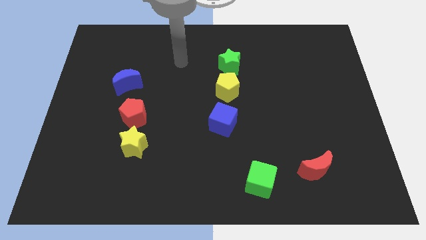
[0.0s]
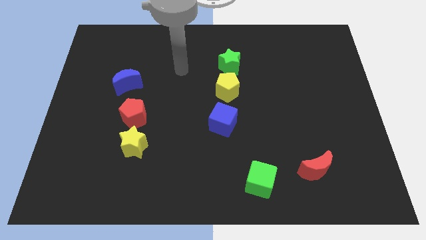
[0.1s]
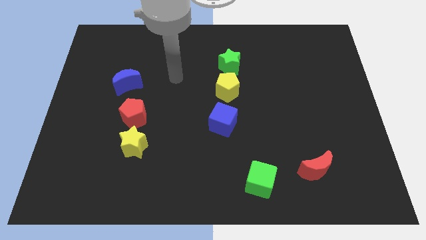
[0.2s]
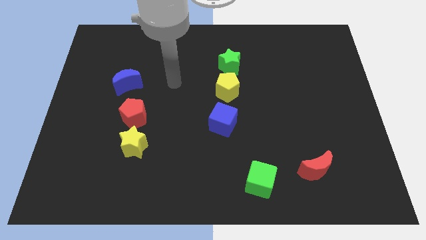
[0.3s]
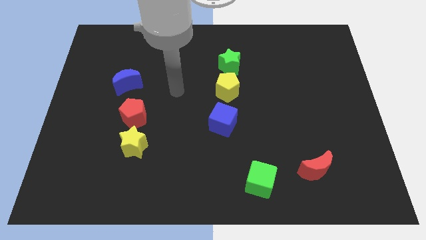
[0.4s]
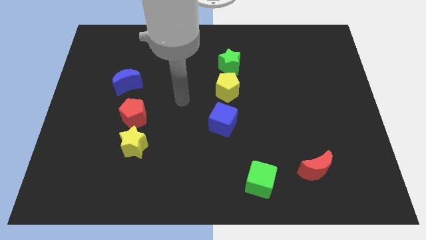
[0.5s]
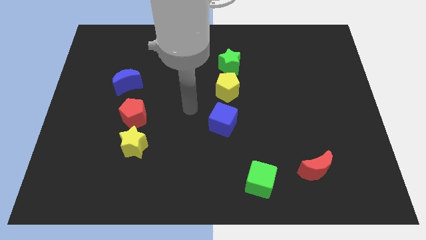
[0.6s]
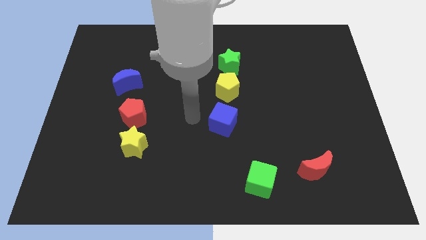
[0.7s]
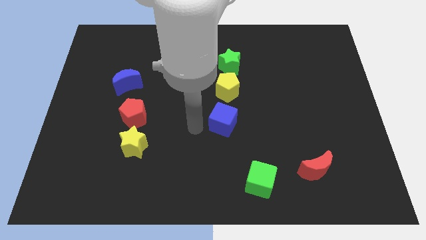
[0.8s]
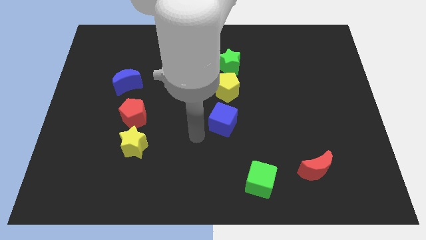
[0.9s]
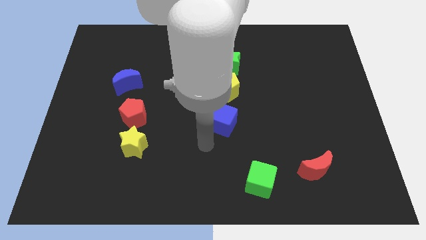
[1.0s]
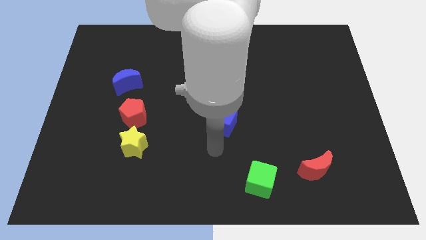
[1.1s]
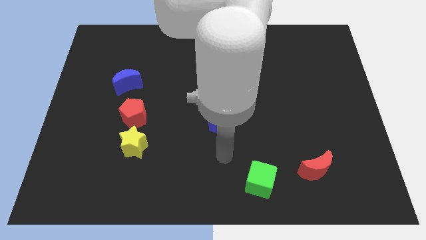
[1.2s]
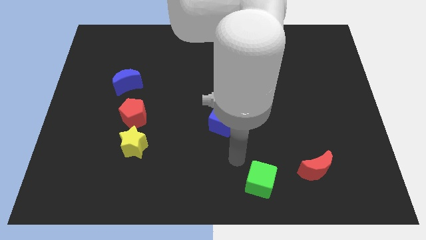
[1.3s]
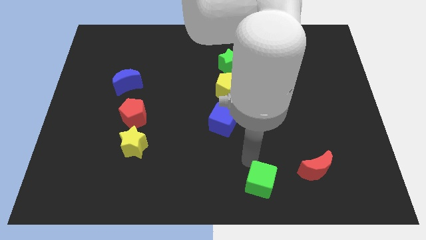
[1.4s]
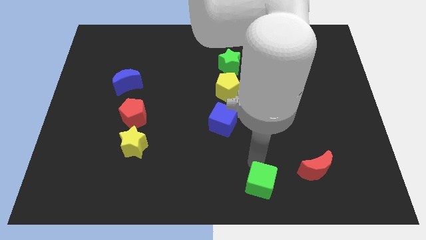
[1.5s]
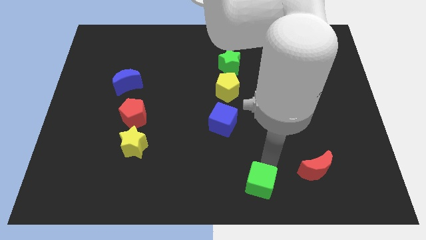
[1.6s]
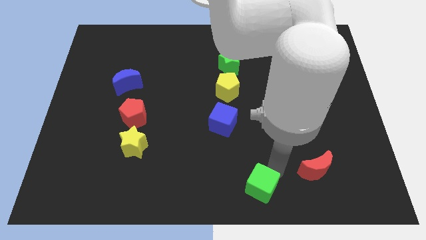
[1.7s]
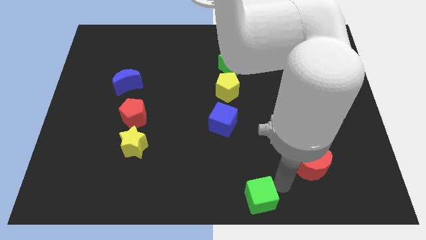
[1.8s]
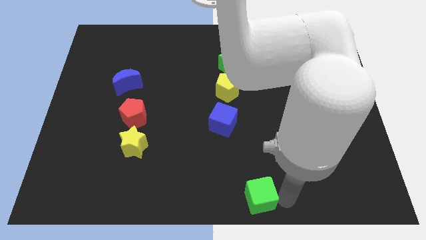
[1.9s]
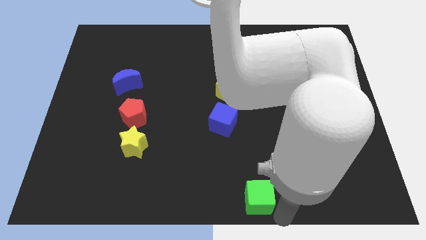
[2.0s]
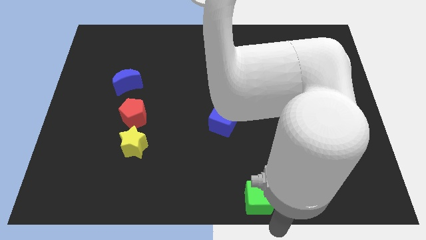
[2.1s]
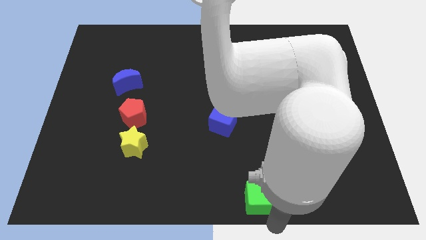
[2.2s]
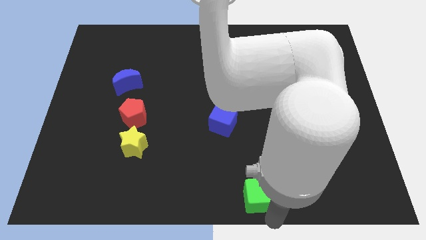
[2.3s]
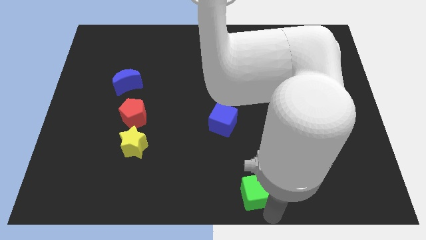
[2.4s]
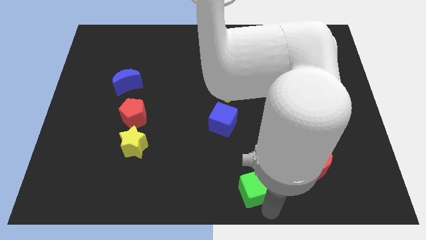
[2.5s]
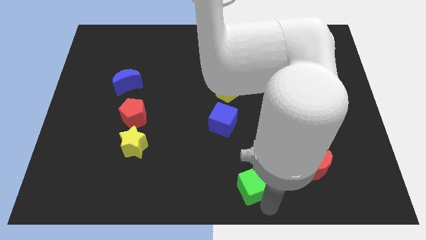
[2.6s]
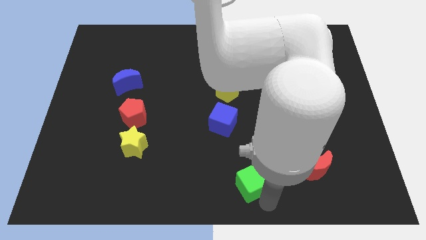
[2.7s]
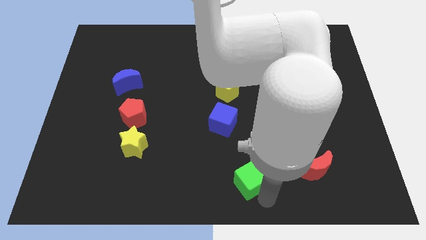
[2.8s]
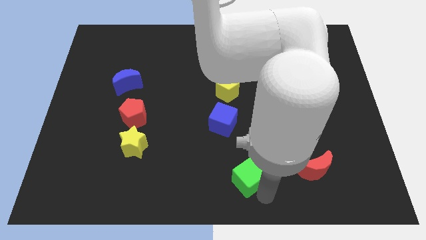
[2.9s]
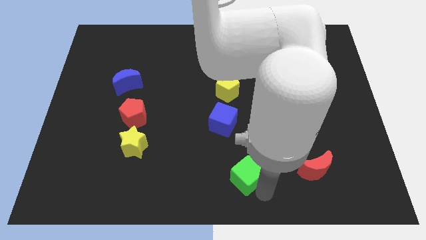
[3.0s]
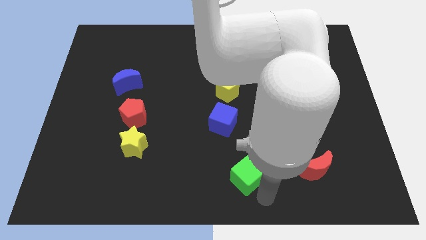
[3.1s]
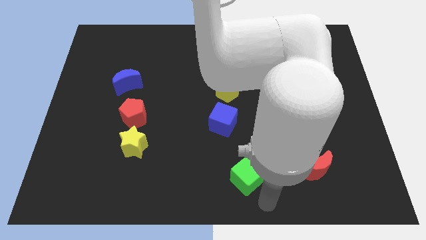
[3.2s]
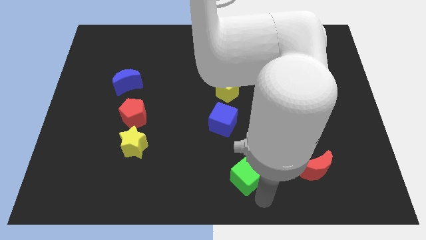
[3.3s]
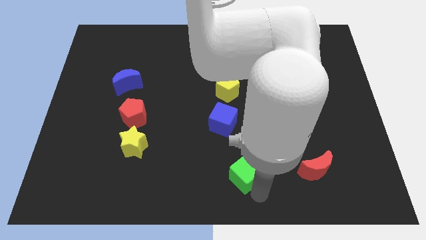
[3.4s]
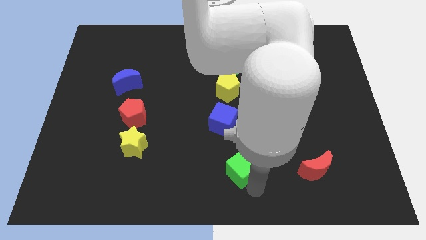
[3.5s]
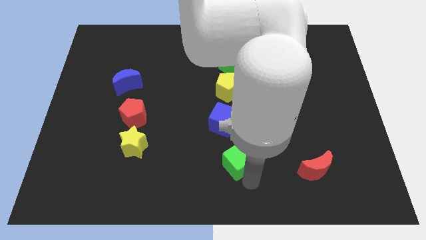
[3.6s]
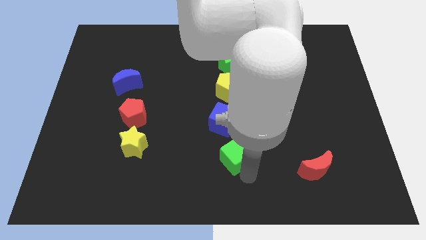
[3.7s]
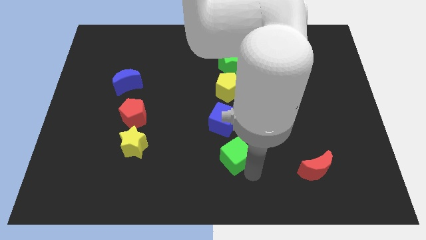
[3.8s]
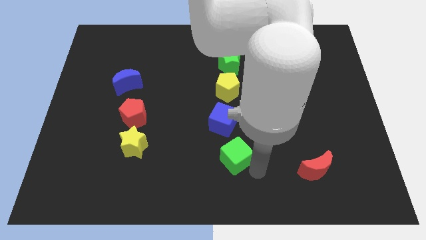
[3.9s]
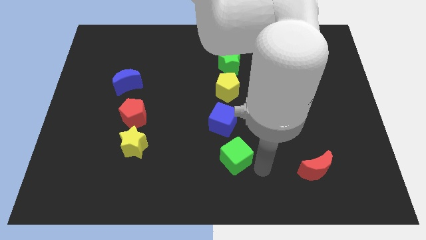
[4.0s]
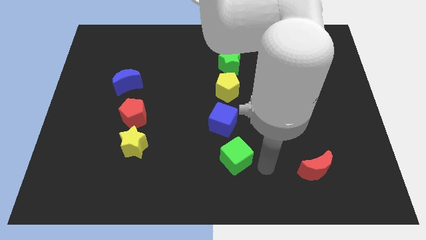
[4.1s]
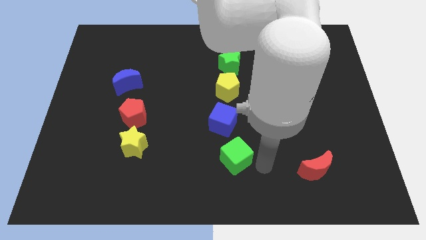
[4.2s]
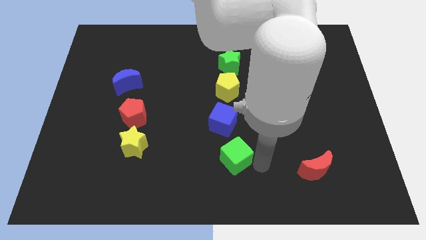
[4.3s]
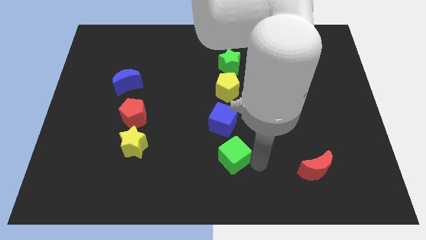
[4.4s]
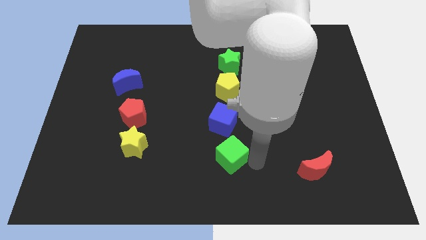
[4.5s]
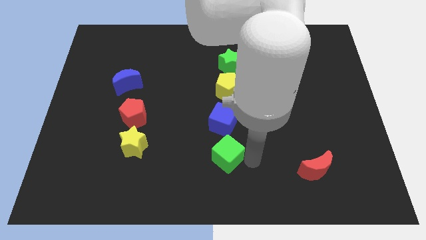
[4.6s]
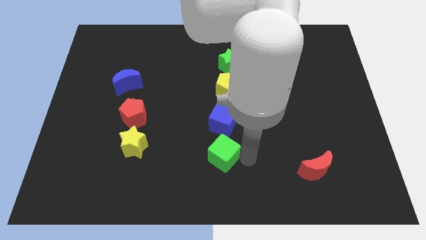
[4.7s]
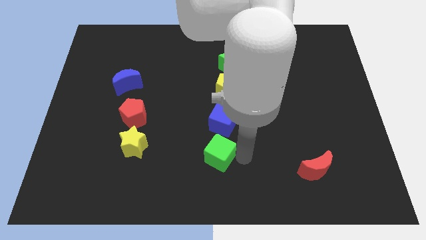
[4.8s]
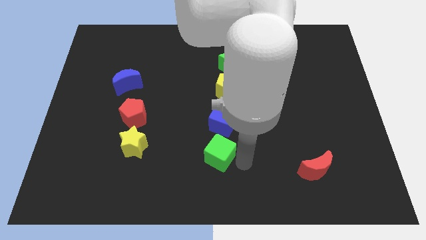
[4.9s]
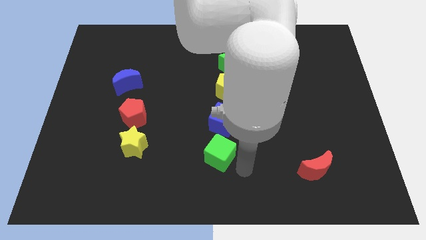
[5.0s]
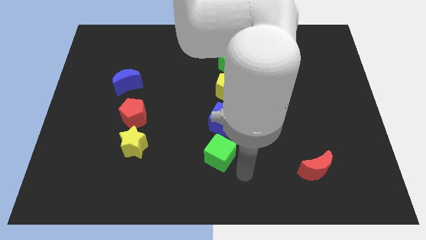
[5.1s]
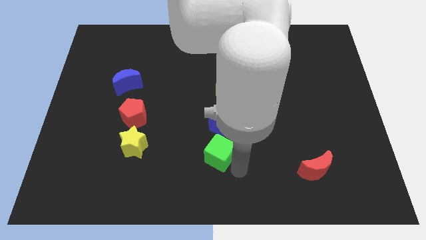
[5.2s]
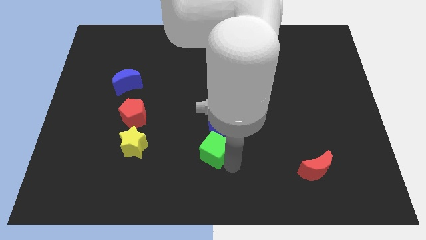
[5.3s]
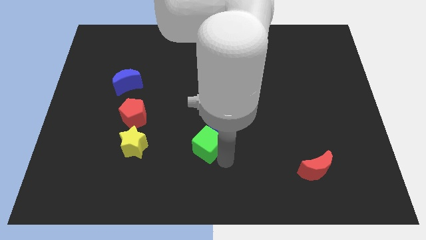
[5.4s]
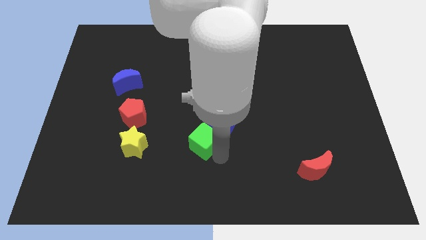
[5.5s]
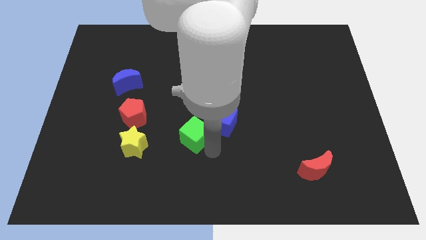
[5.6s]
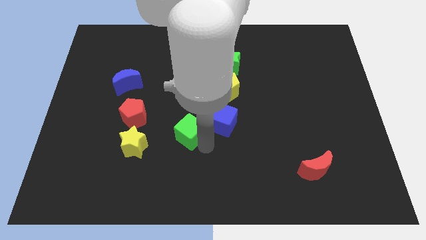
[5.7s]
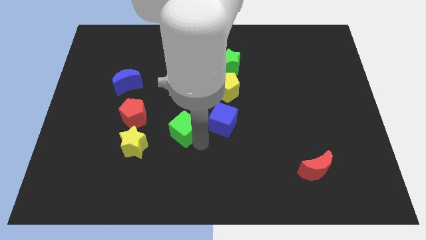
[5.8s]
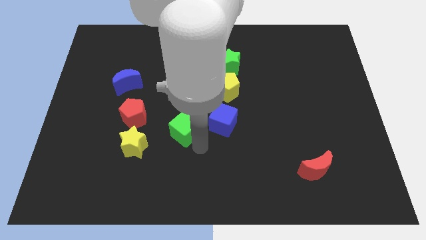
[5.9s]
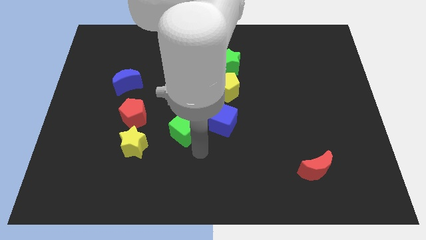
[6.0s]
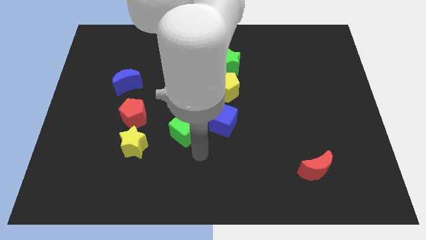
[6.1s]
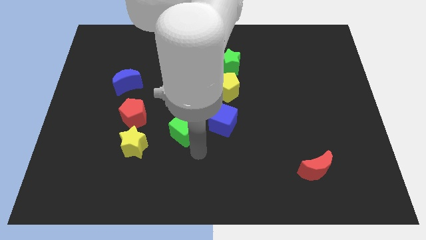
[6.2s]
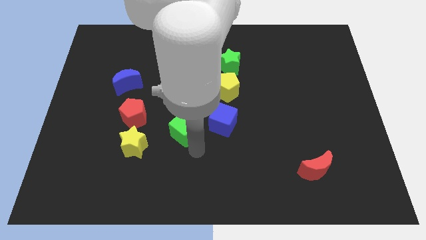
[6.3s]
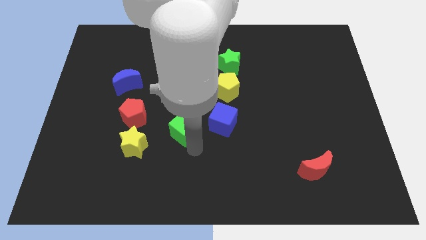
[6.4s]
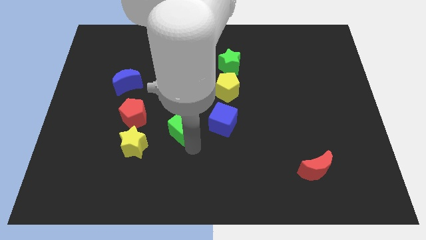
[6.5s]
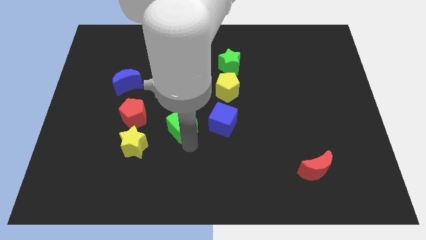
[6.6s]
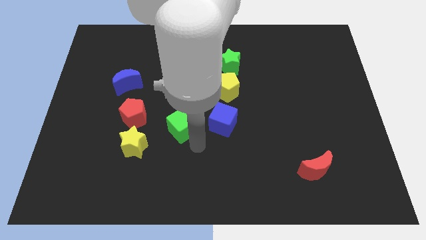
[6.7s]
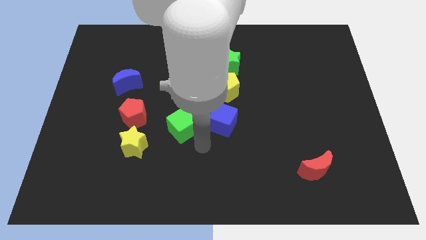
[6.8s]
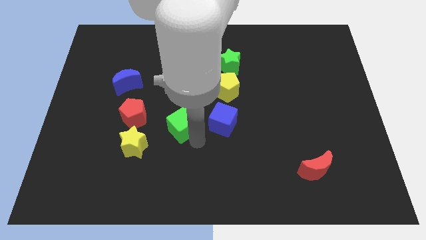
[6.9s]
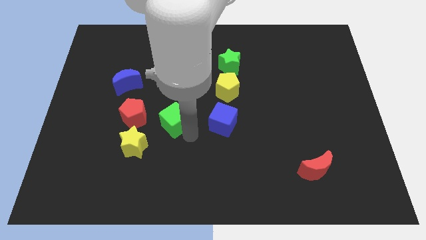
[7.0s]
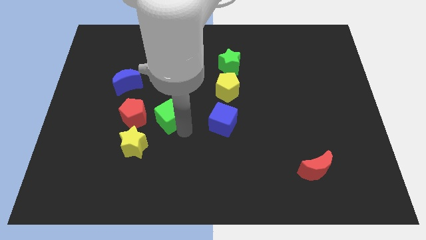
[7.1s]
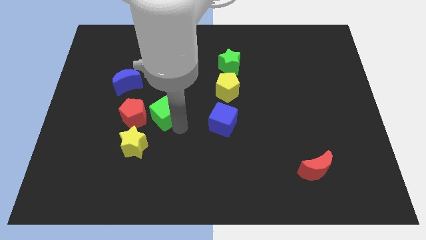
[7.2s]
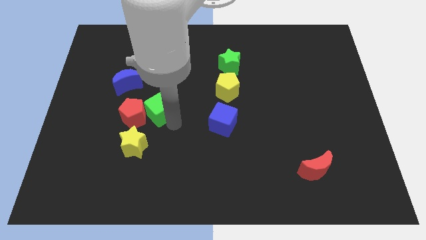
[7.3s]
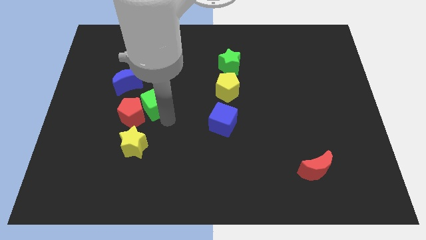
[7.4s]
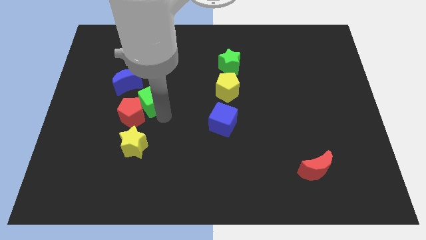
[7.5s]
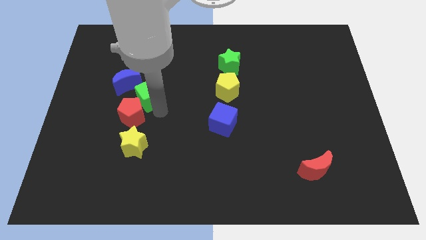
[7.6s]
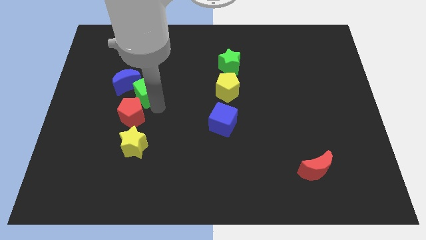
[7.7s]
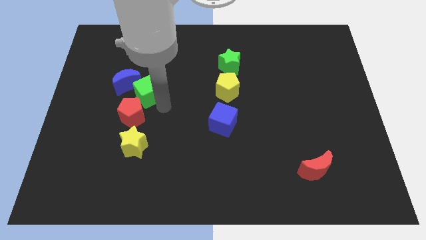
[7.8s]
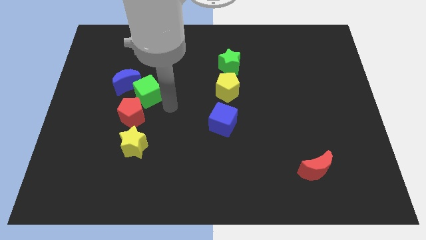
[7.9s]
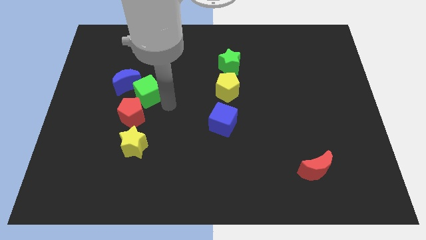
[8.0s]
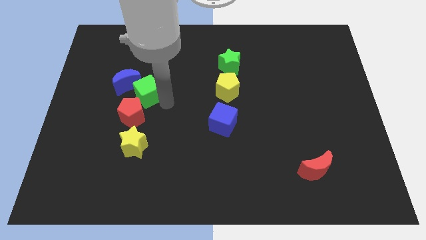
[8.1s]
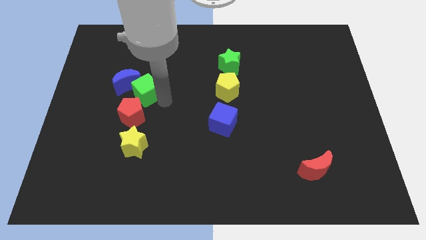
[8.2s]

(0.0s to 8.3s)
move the green cube to the blue moon
